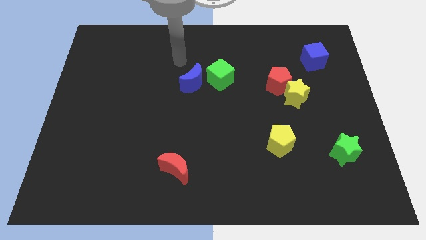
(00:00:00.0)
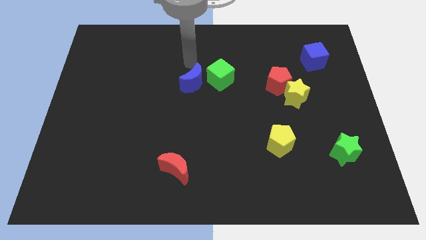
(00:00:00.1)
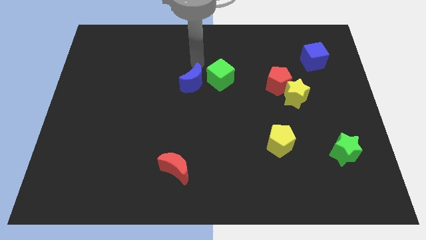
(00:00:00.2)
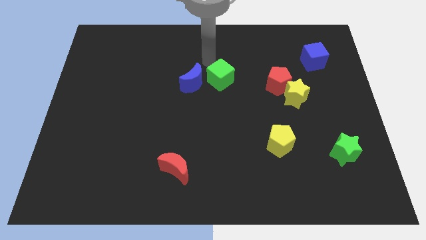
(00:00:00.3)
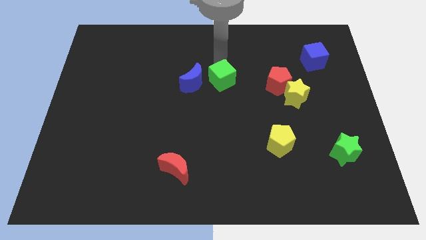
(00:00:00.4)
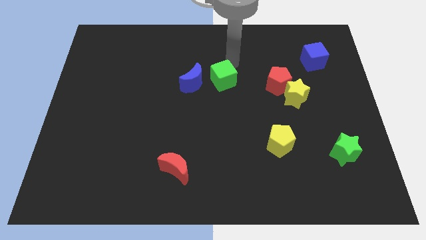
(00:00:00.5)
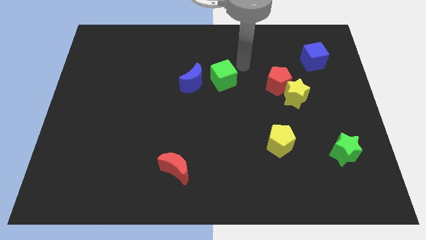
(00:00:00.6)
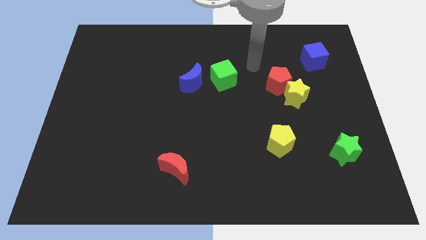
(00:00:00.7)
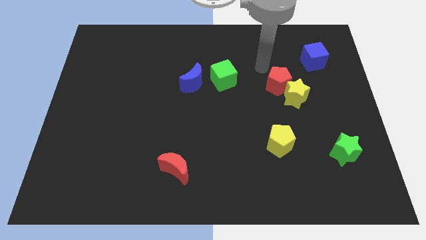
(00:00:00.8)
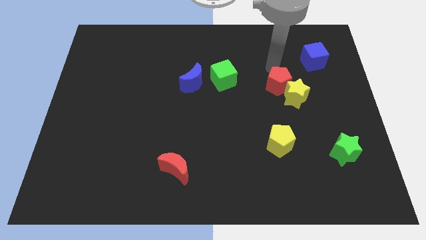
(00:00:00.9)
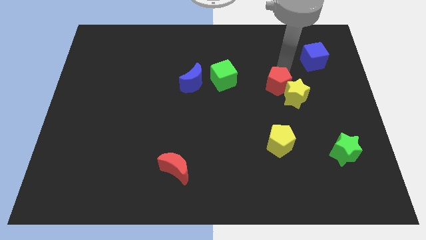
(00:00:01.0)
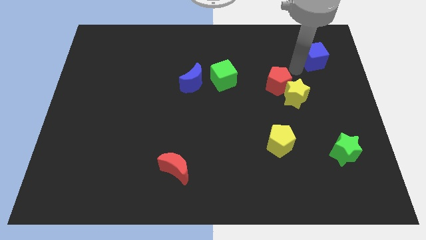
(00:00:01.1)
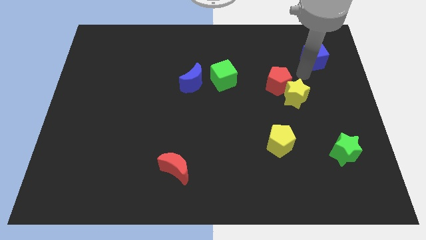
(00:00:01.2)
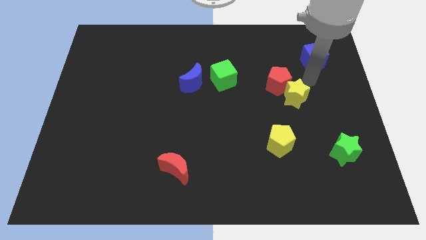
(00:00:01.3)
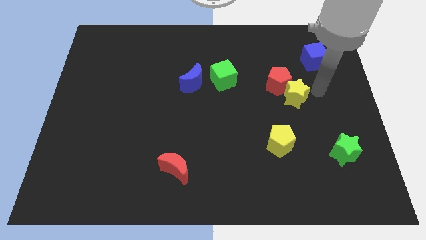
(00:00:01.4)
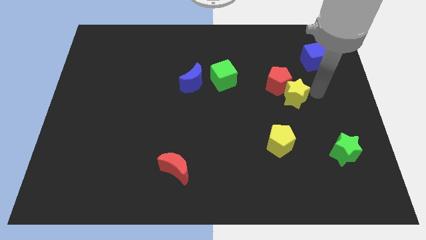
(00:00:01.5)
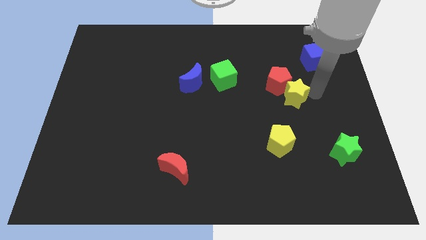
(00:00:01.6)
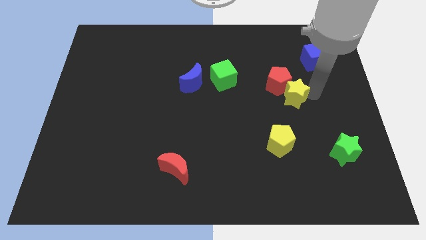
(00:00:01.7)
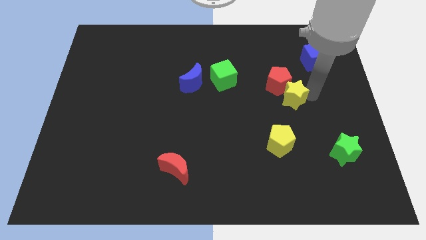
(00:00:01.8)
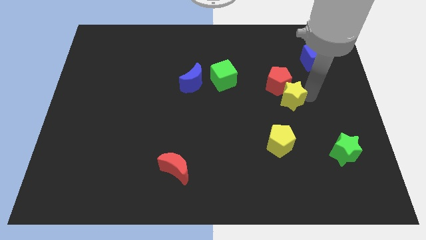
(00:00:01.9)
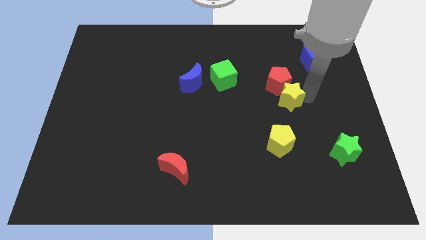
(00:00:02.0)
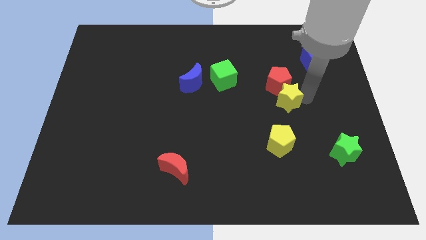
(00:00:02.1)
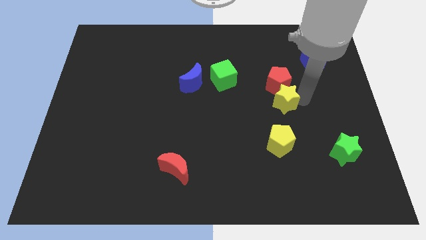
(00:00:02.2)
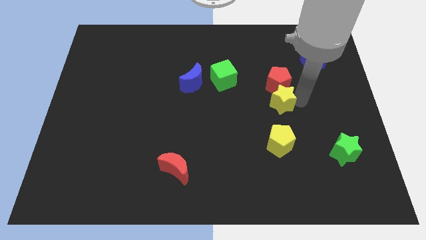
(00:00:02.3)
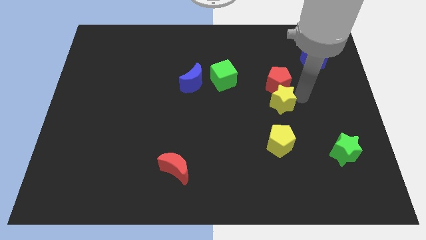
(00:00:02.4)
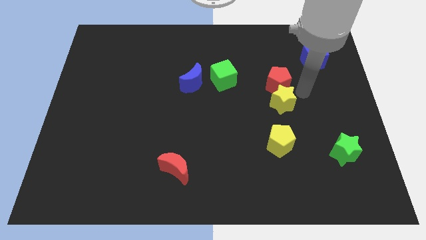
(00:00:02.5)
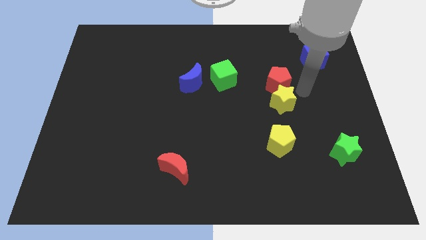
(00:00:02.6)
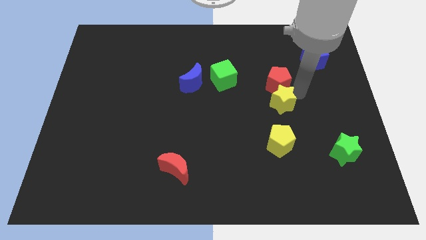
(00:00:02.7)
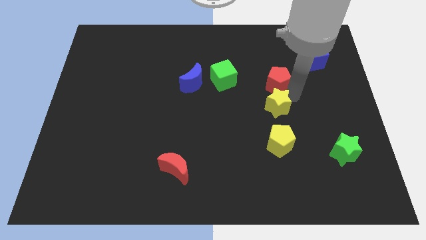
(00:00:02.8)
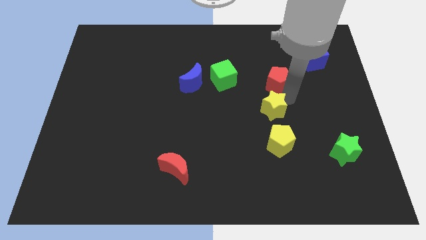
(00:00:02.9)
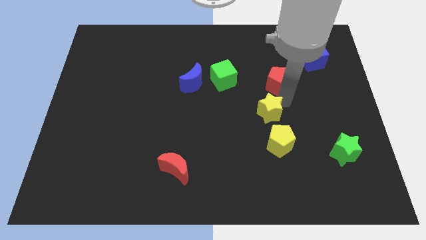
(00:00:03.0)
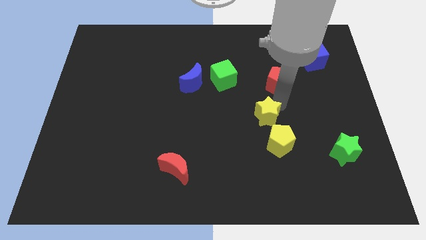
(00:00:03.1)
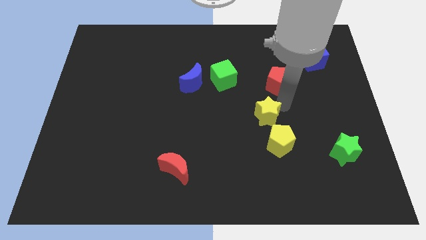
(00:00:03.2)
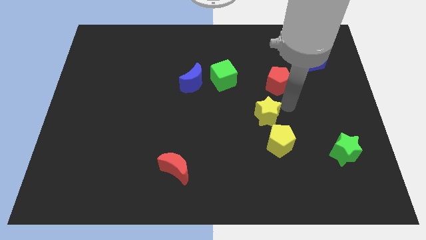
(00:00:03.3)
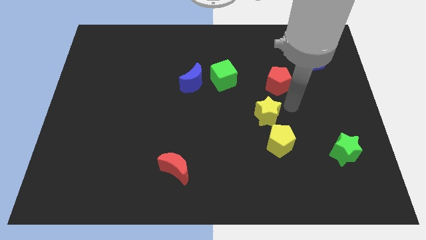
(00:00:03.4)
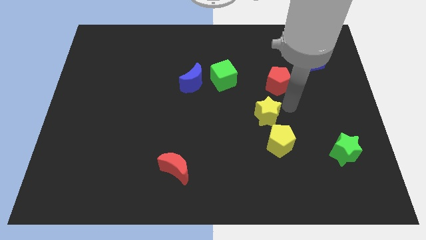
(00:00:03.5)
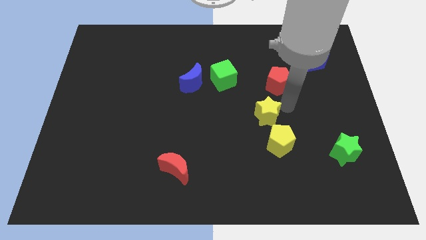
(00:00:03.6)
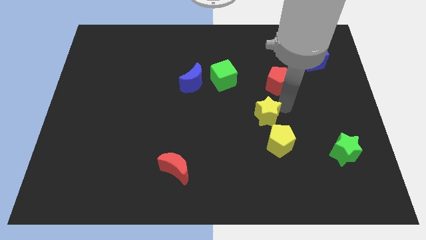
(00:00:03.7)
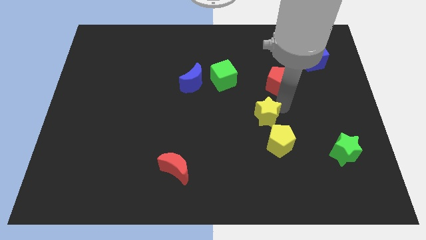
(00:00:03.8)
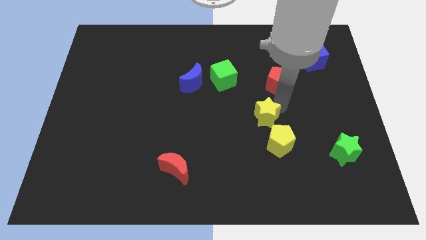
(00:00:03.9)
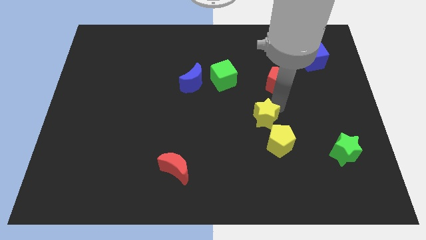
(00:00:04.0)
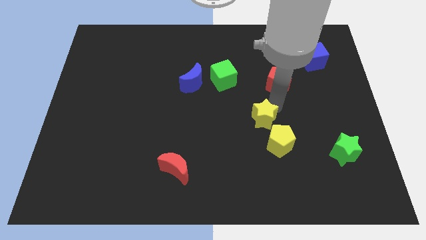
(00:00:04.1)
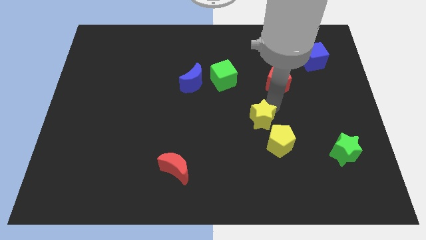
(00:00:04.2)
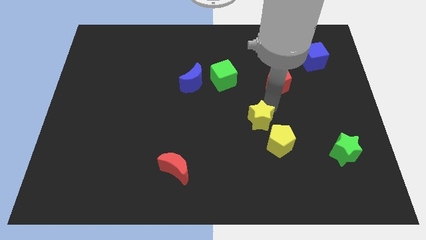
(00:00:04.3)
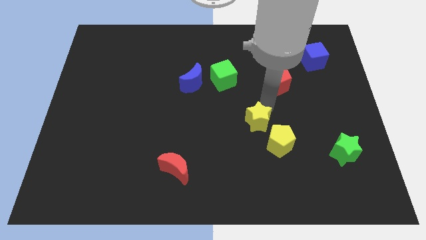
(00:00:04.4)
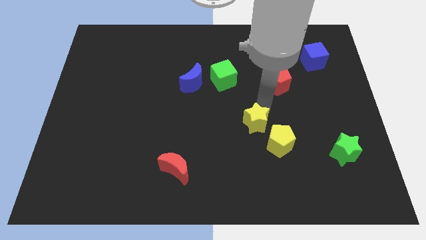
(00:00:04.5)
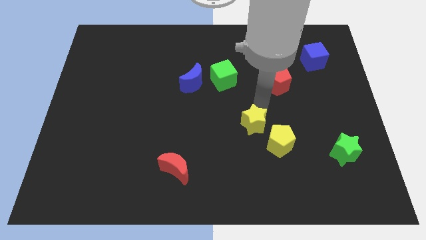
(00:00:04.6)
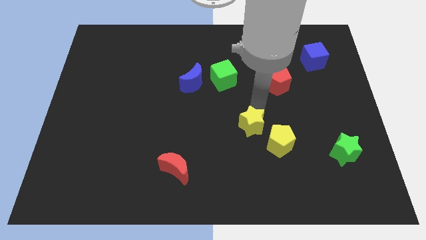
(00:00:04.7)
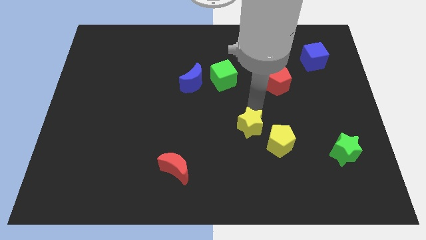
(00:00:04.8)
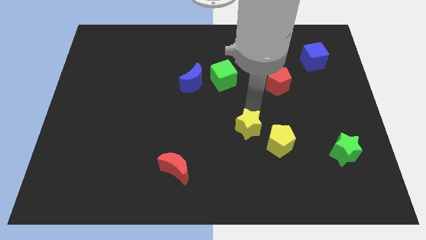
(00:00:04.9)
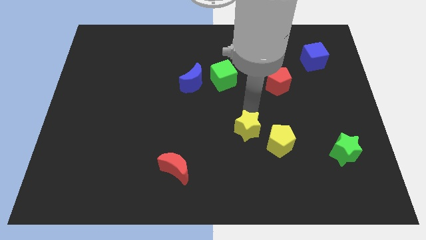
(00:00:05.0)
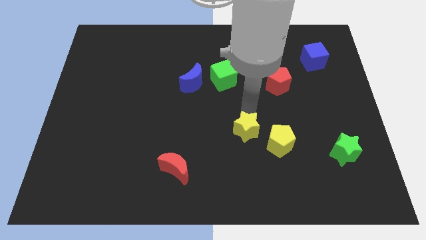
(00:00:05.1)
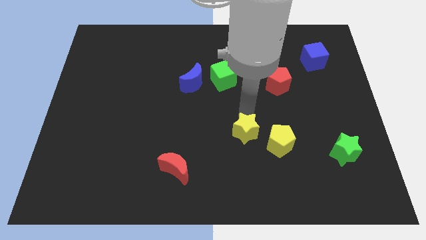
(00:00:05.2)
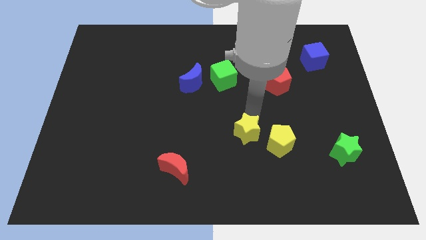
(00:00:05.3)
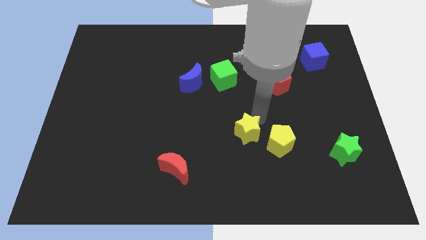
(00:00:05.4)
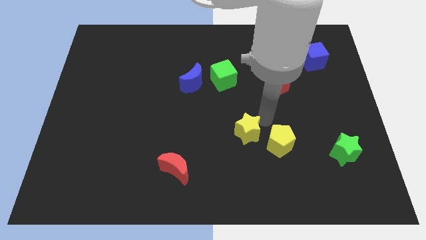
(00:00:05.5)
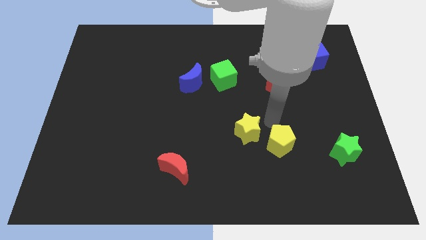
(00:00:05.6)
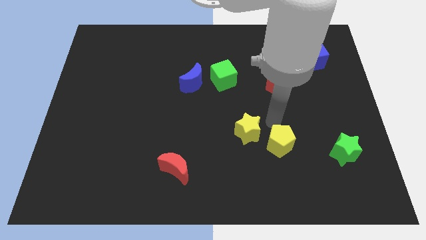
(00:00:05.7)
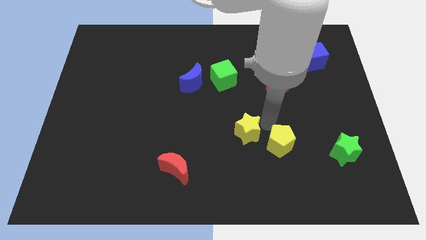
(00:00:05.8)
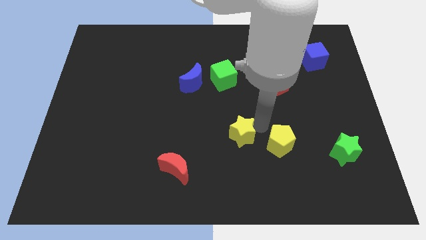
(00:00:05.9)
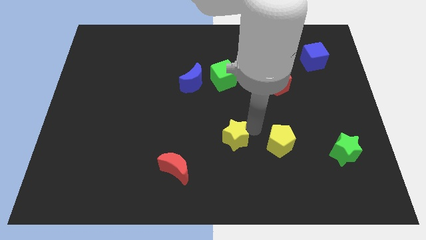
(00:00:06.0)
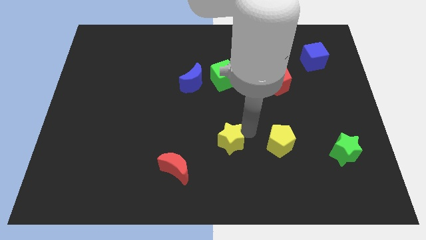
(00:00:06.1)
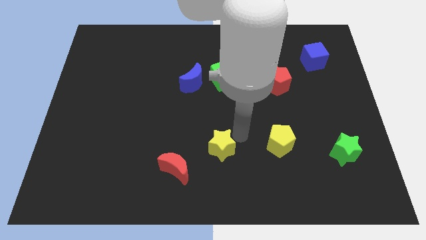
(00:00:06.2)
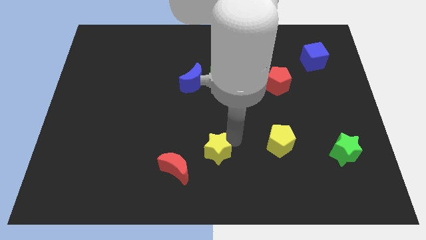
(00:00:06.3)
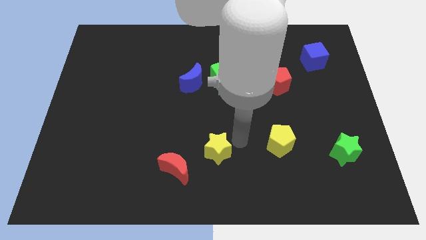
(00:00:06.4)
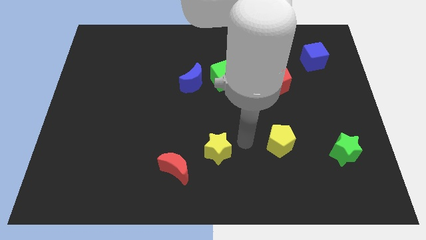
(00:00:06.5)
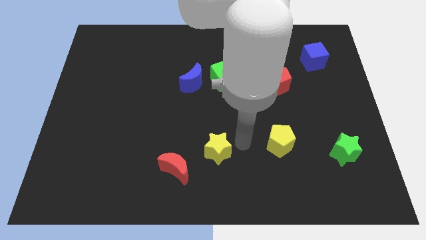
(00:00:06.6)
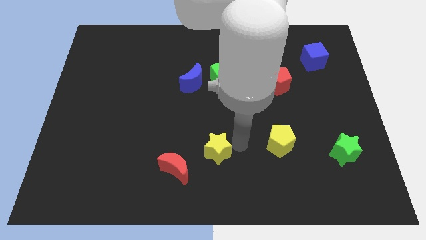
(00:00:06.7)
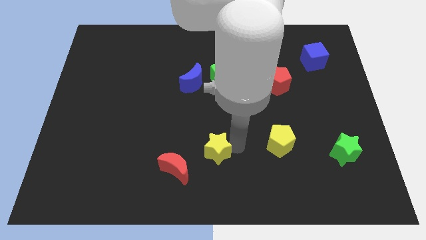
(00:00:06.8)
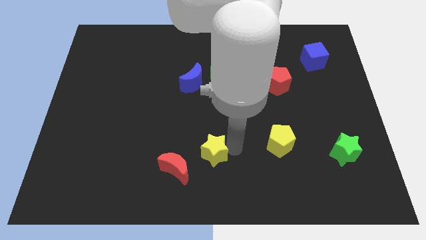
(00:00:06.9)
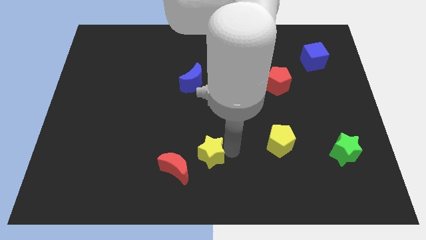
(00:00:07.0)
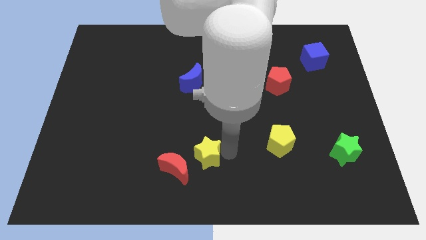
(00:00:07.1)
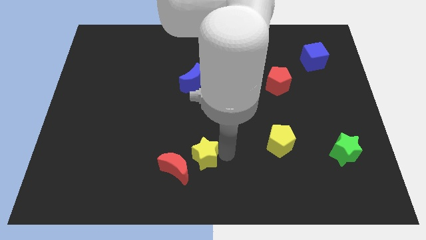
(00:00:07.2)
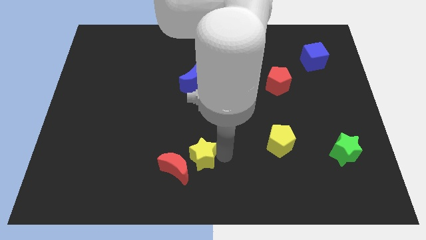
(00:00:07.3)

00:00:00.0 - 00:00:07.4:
slide the yellow star to the red moon
